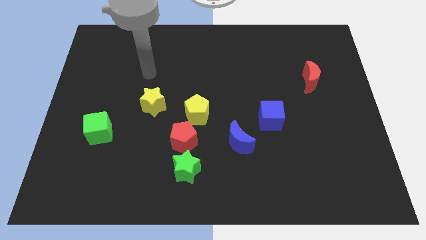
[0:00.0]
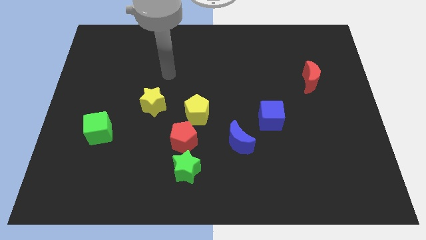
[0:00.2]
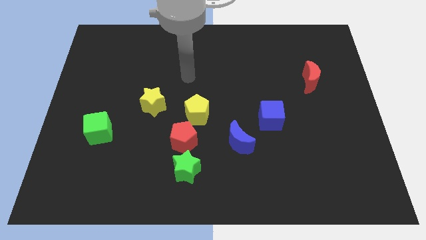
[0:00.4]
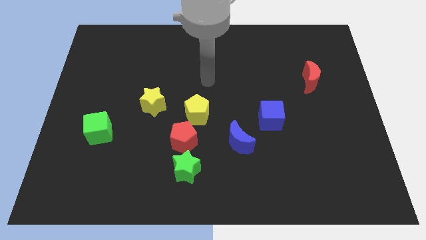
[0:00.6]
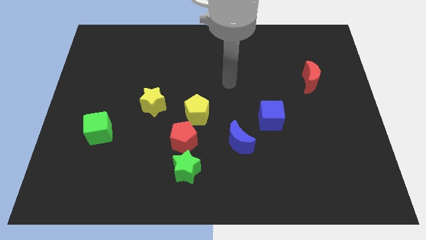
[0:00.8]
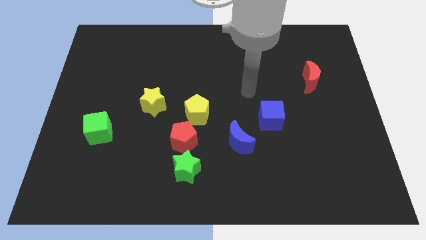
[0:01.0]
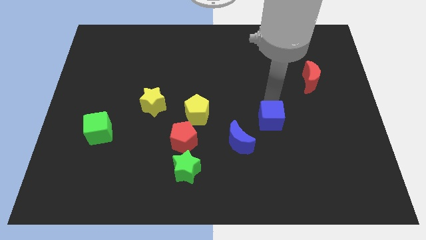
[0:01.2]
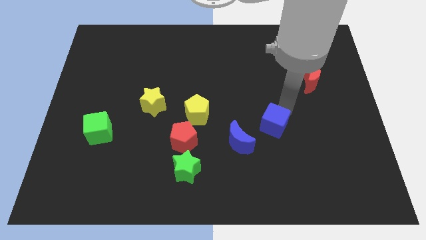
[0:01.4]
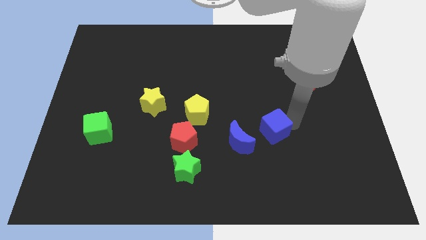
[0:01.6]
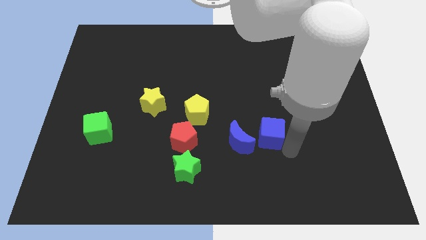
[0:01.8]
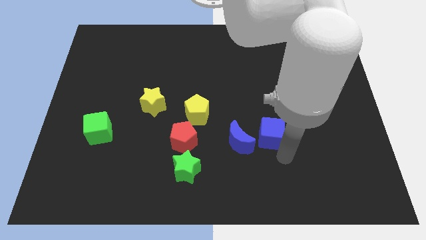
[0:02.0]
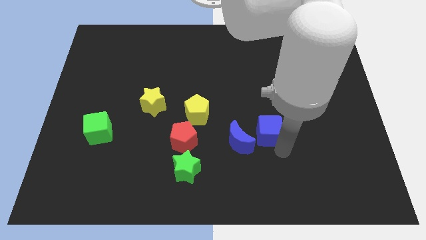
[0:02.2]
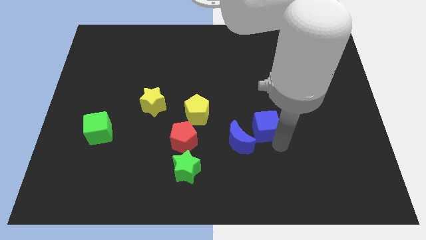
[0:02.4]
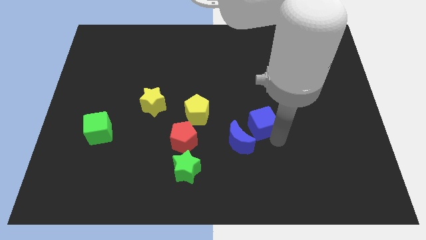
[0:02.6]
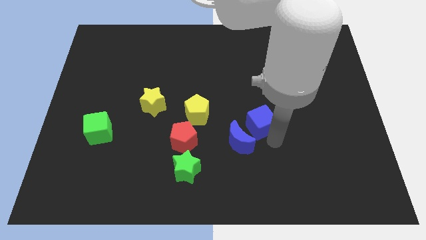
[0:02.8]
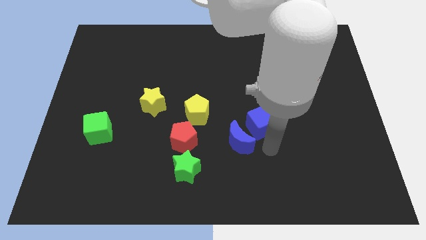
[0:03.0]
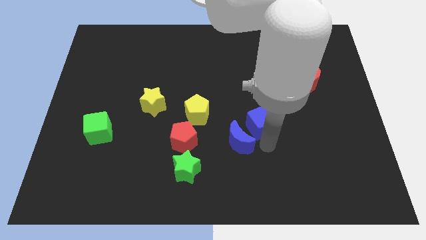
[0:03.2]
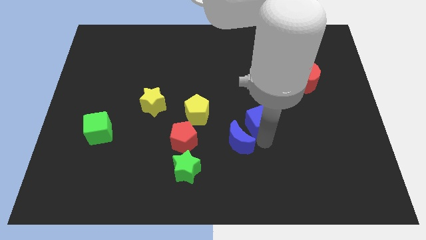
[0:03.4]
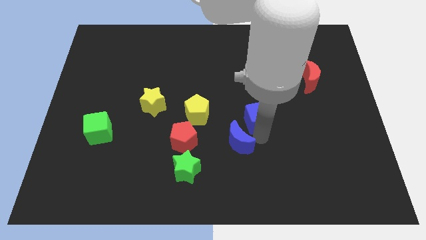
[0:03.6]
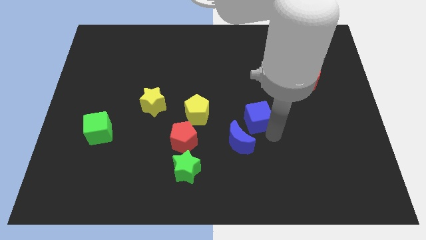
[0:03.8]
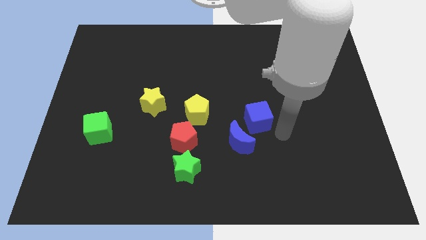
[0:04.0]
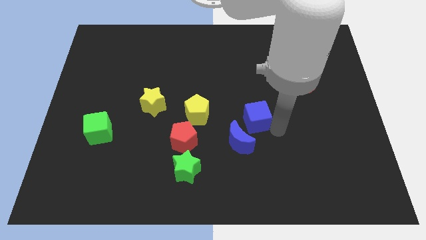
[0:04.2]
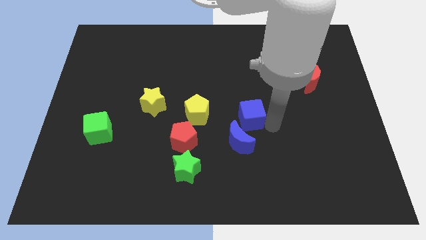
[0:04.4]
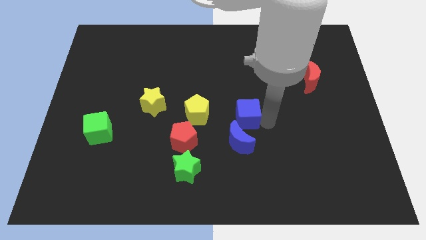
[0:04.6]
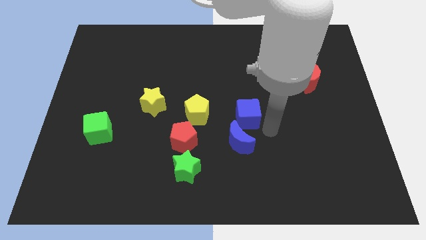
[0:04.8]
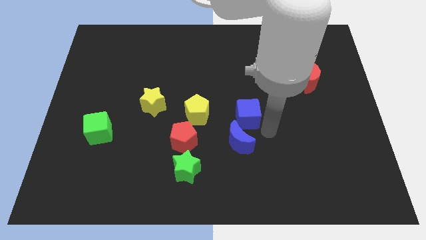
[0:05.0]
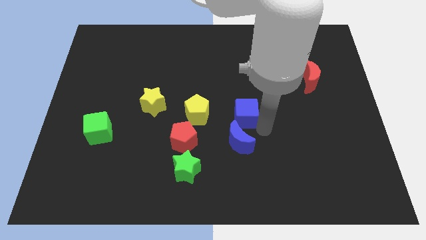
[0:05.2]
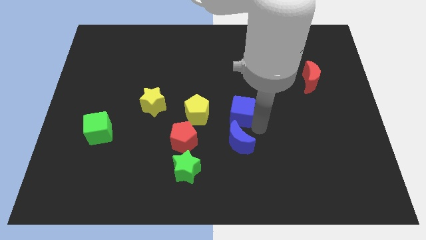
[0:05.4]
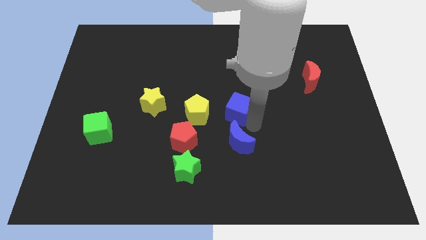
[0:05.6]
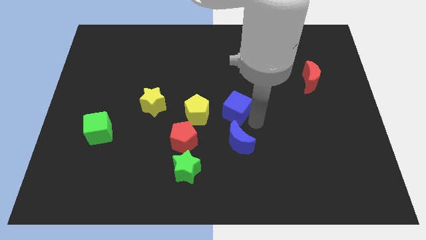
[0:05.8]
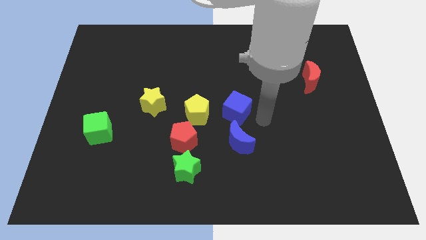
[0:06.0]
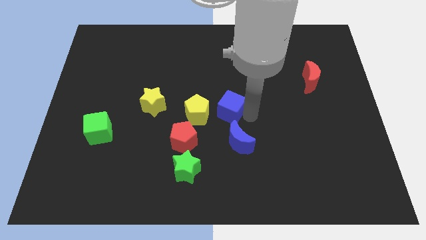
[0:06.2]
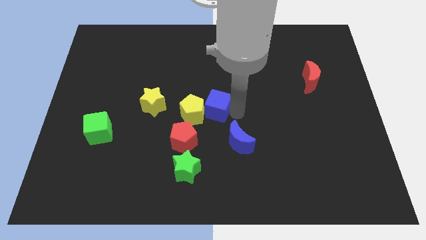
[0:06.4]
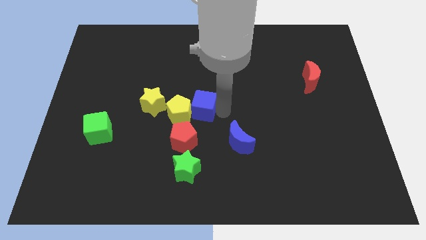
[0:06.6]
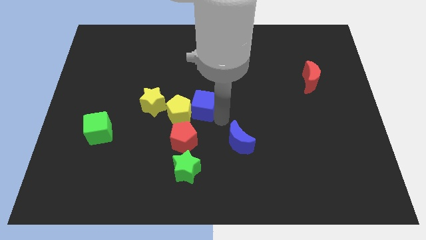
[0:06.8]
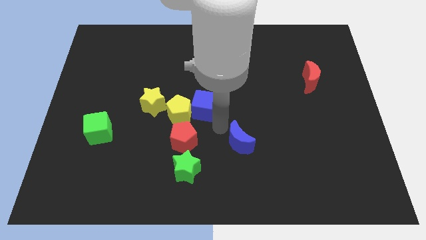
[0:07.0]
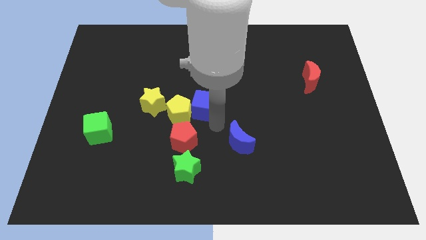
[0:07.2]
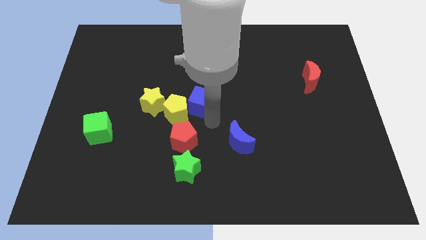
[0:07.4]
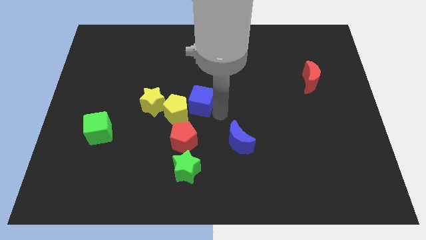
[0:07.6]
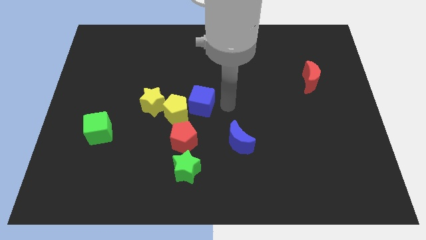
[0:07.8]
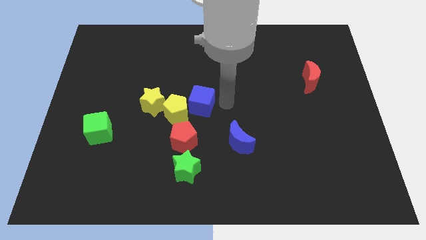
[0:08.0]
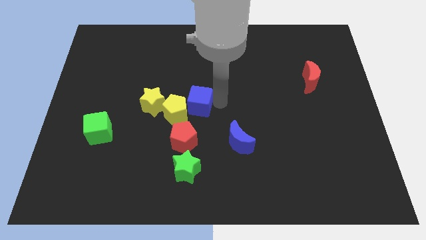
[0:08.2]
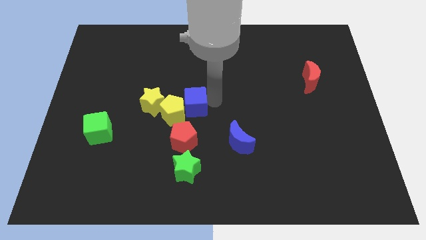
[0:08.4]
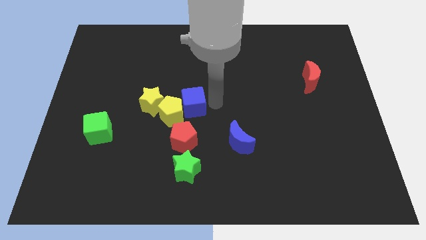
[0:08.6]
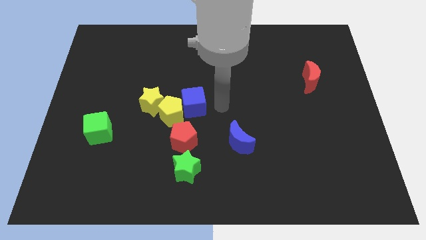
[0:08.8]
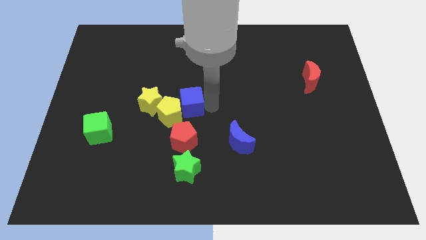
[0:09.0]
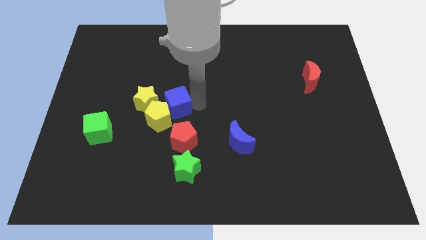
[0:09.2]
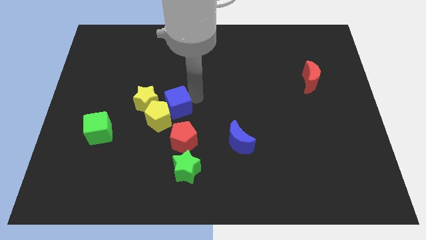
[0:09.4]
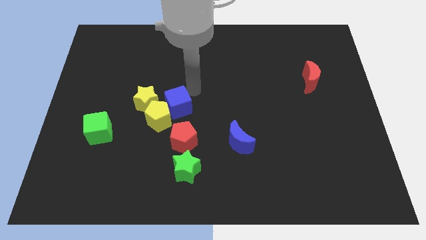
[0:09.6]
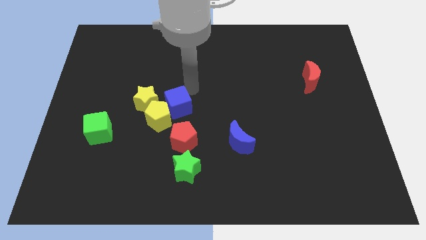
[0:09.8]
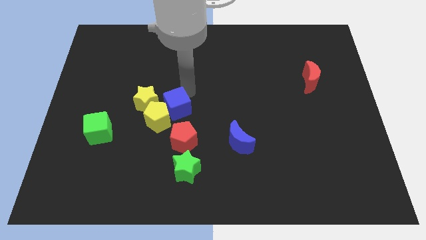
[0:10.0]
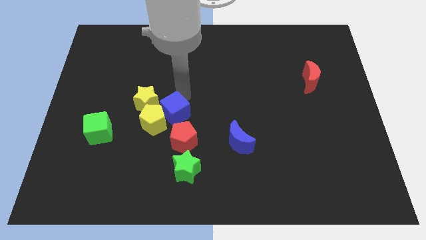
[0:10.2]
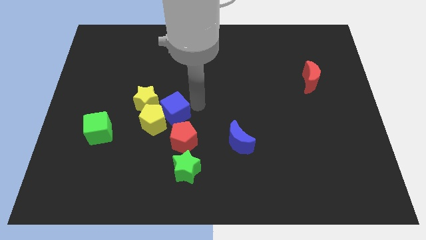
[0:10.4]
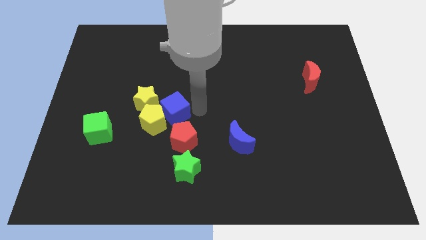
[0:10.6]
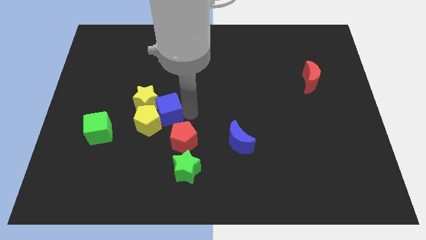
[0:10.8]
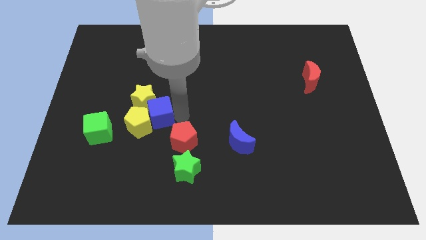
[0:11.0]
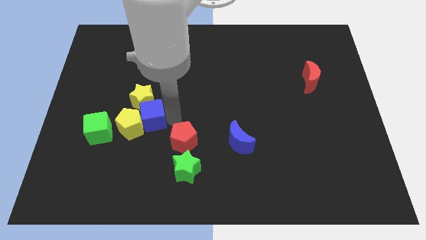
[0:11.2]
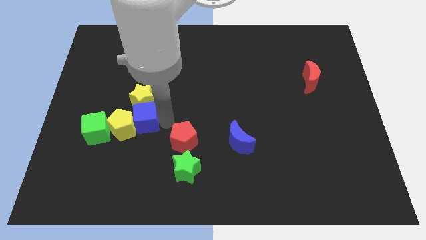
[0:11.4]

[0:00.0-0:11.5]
slide the blue cube diagonally down and to the left of the yellow star

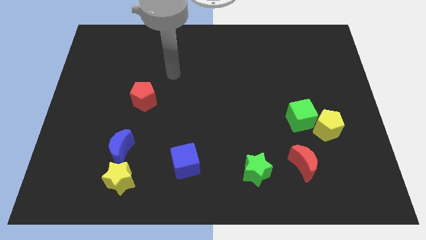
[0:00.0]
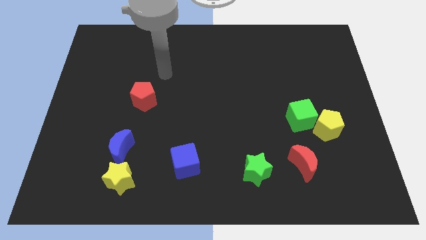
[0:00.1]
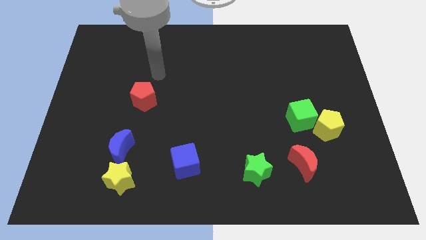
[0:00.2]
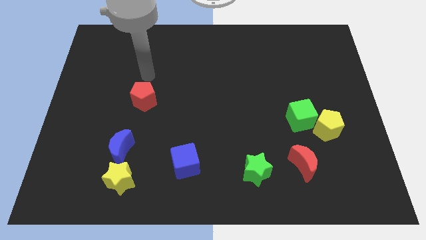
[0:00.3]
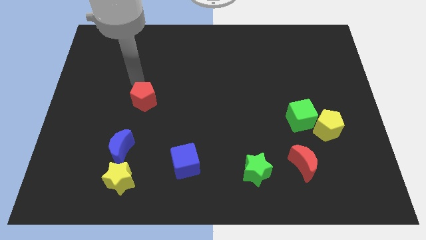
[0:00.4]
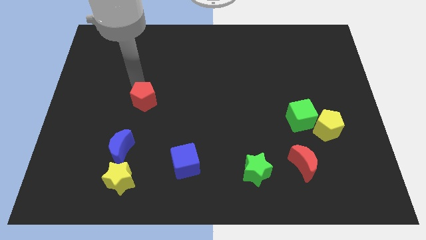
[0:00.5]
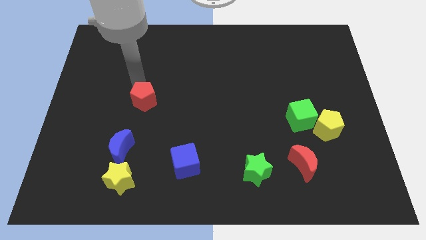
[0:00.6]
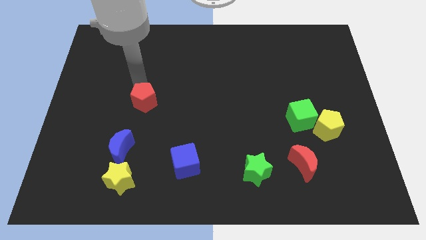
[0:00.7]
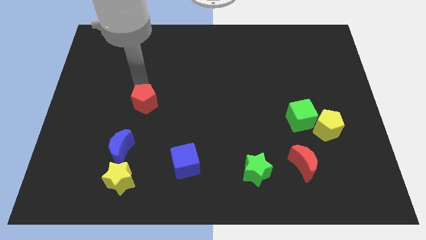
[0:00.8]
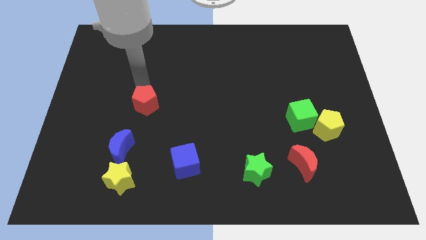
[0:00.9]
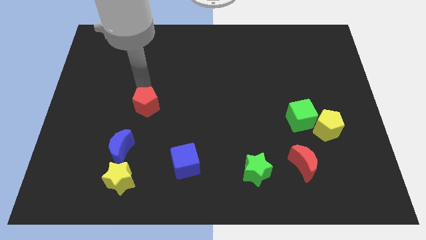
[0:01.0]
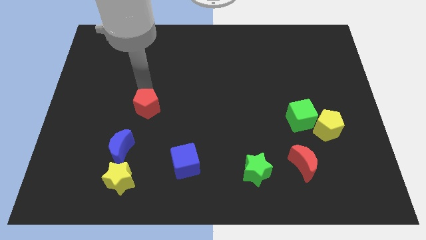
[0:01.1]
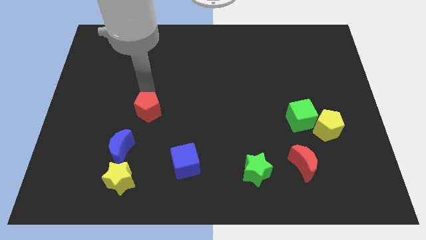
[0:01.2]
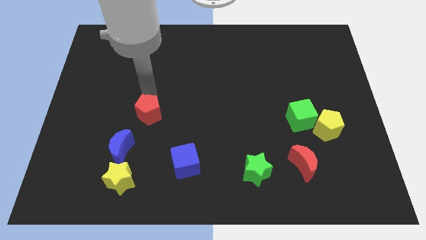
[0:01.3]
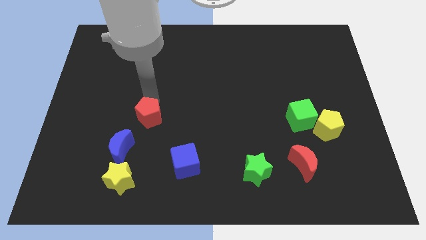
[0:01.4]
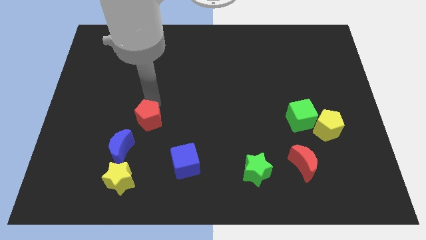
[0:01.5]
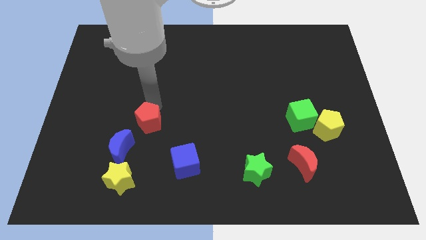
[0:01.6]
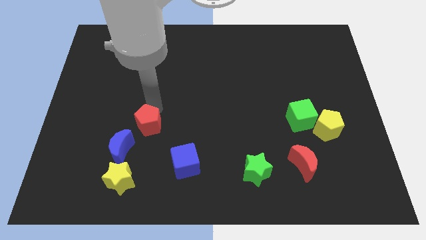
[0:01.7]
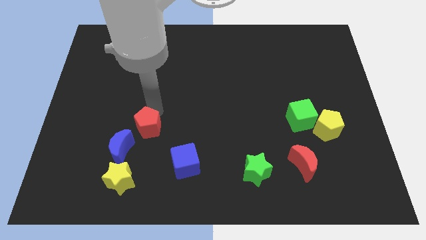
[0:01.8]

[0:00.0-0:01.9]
slide the red pentagon to the top left of the blue cube
